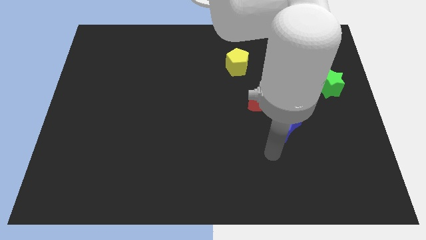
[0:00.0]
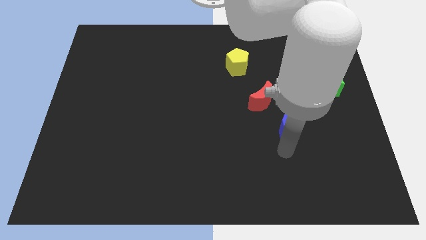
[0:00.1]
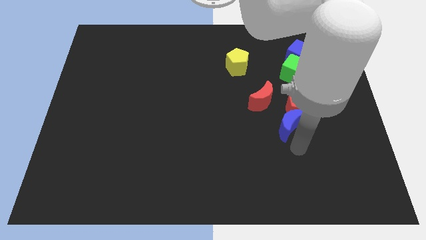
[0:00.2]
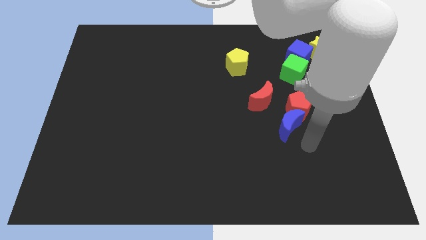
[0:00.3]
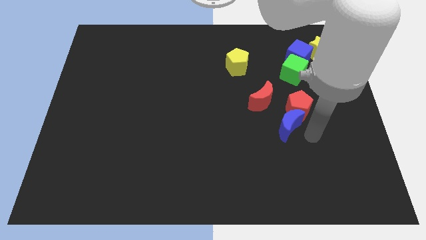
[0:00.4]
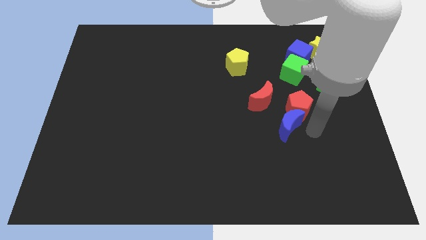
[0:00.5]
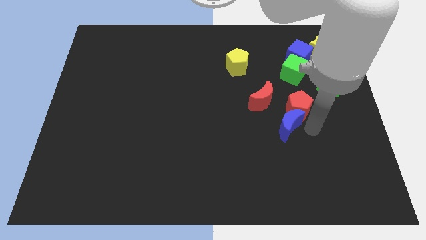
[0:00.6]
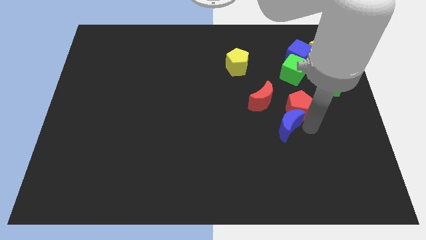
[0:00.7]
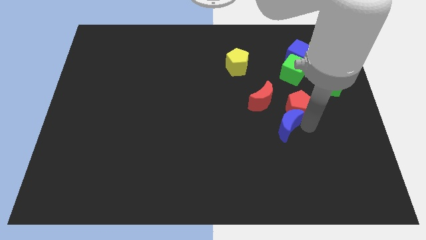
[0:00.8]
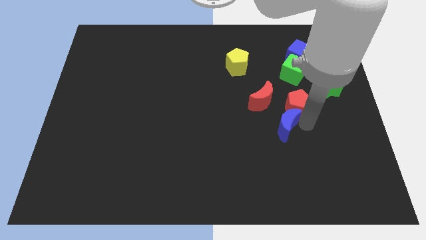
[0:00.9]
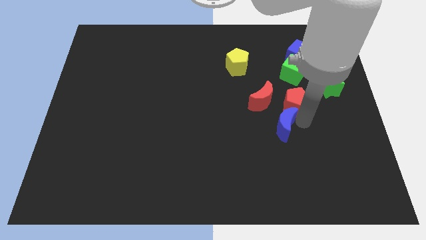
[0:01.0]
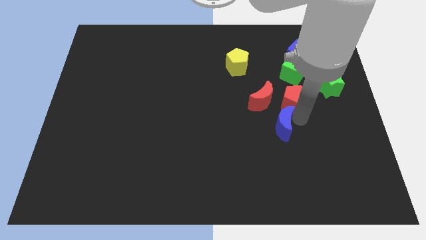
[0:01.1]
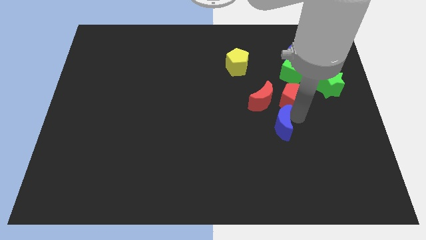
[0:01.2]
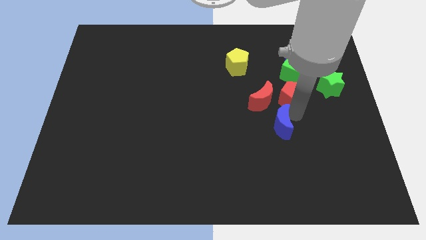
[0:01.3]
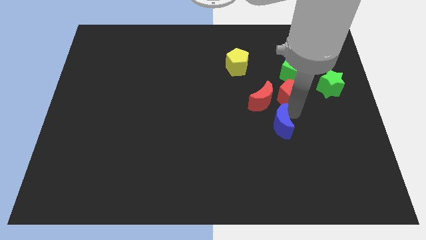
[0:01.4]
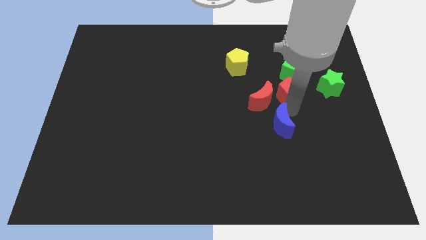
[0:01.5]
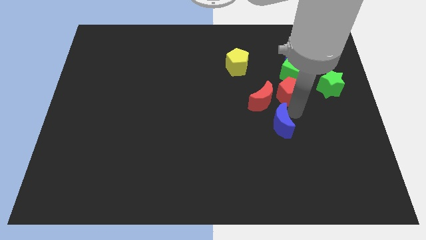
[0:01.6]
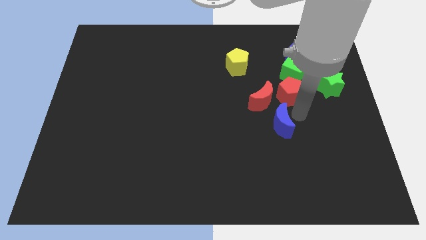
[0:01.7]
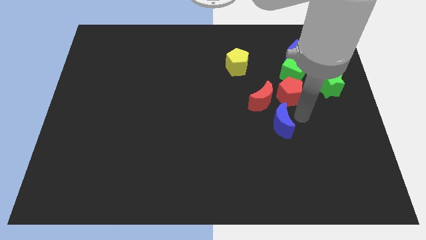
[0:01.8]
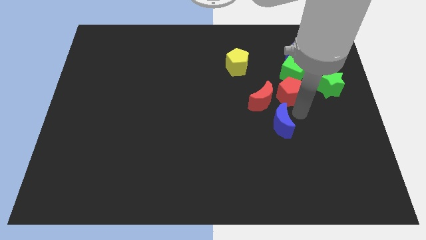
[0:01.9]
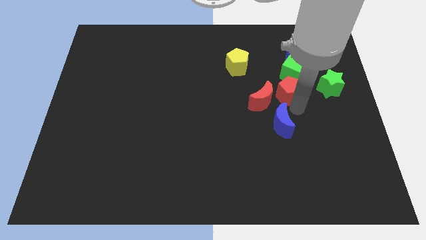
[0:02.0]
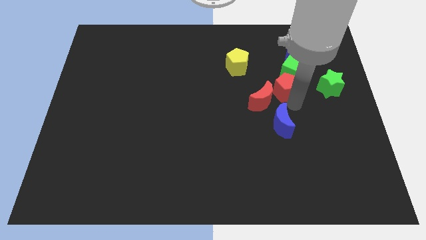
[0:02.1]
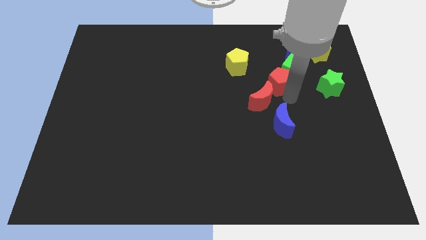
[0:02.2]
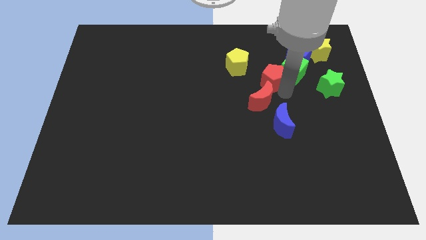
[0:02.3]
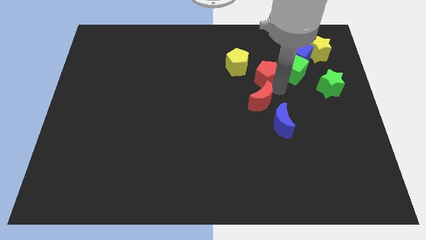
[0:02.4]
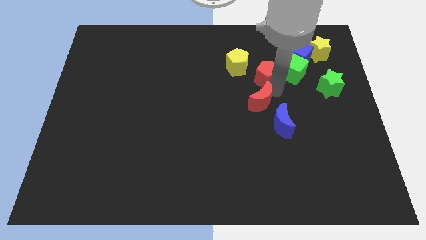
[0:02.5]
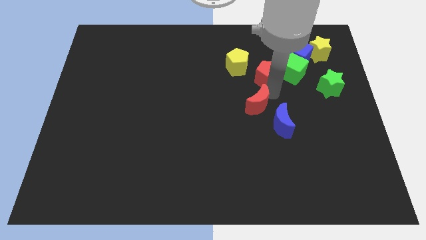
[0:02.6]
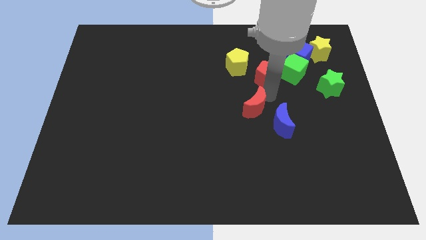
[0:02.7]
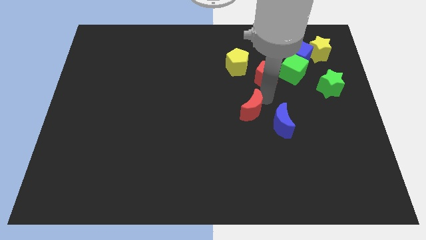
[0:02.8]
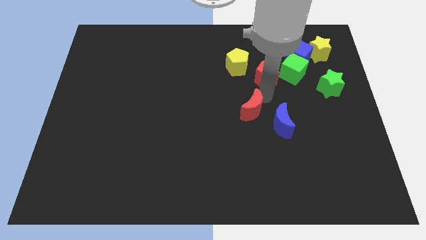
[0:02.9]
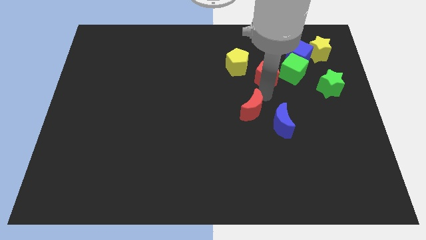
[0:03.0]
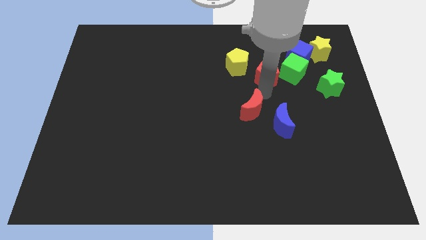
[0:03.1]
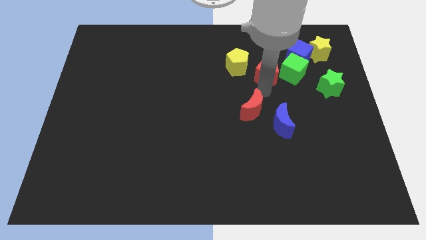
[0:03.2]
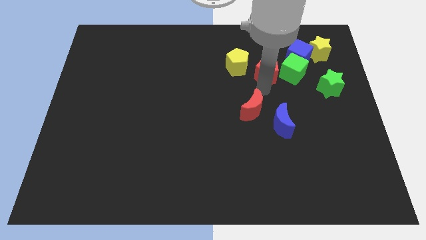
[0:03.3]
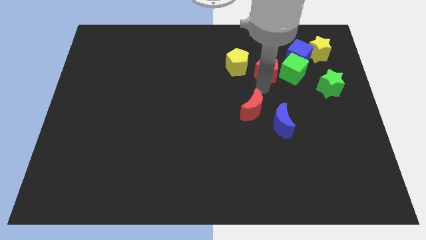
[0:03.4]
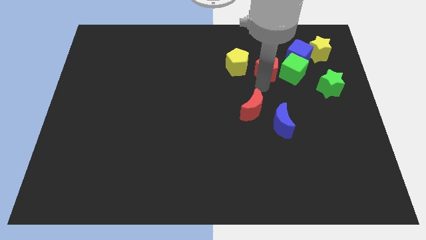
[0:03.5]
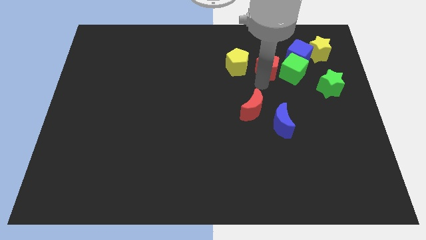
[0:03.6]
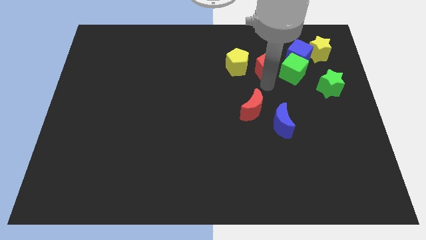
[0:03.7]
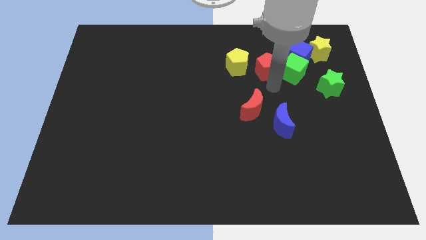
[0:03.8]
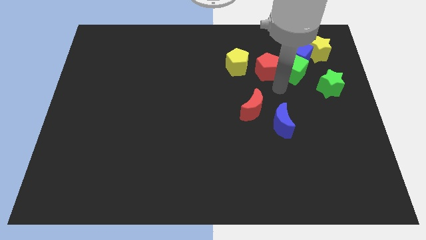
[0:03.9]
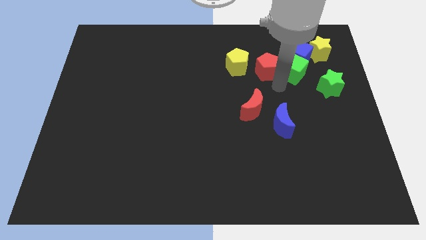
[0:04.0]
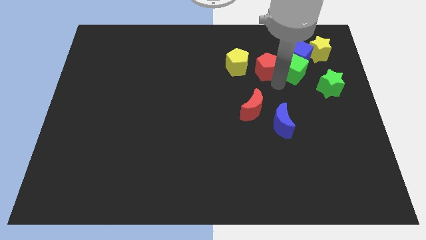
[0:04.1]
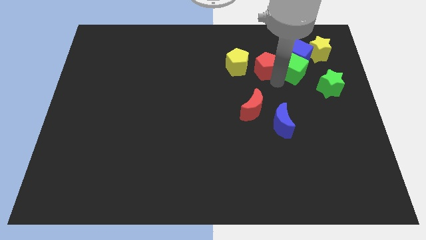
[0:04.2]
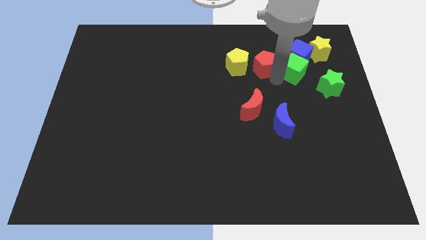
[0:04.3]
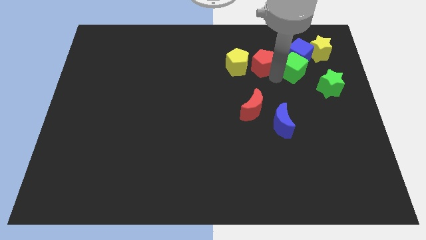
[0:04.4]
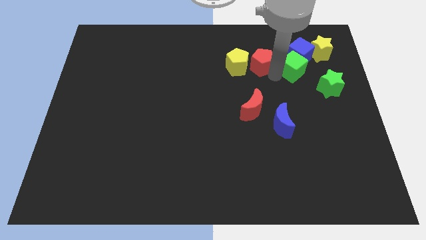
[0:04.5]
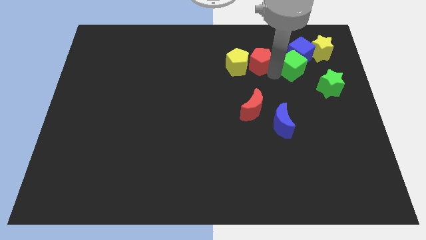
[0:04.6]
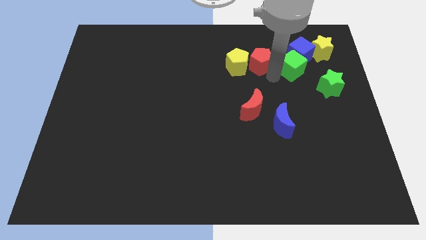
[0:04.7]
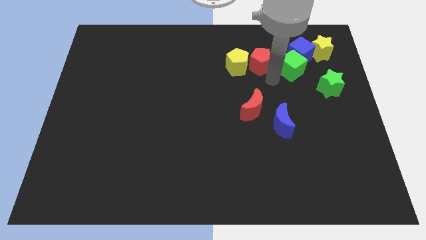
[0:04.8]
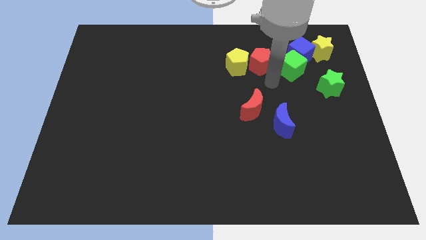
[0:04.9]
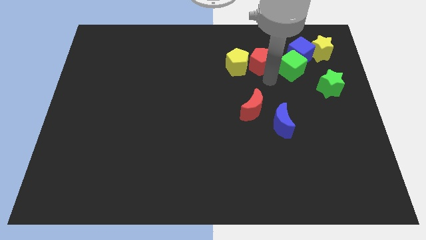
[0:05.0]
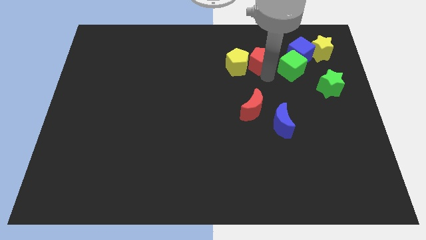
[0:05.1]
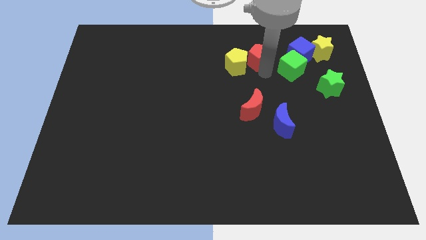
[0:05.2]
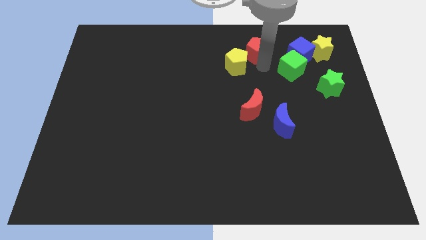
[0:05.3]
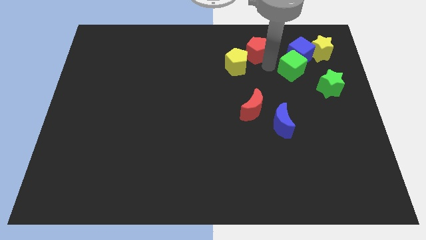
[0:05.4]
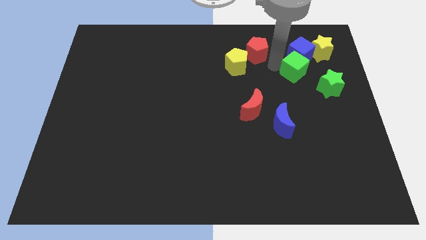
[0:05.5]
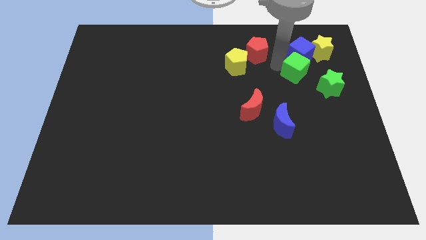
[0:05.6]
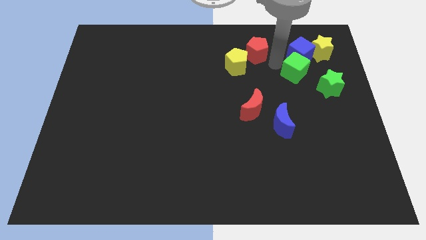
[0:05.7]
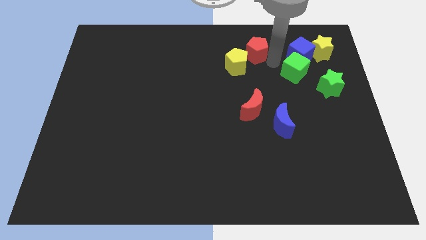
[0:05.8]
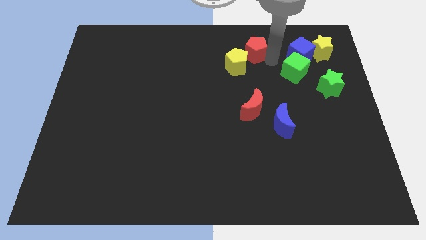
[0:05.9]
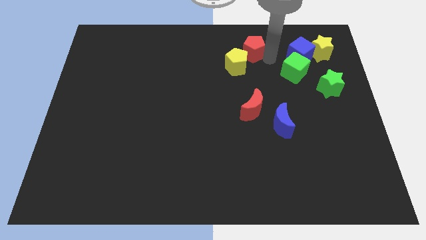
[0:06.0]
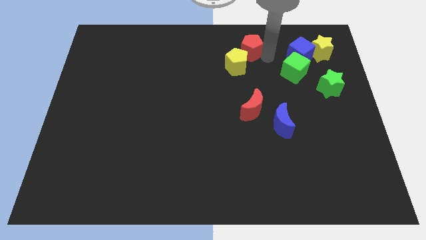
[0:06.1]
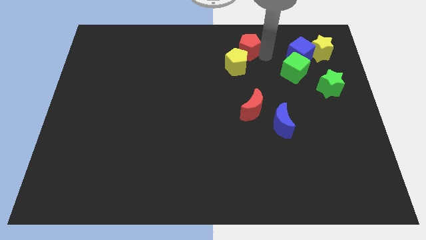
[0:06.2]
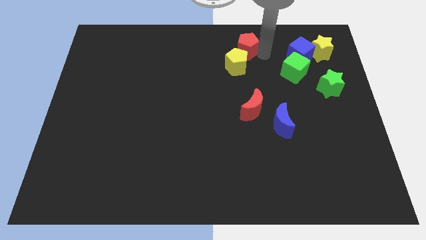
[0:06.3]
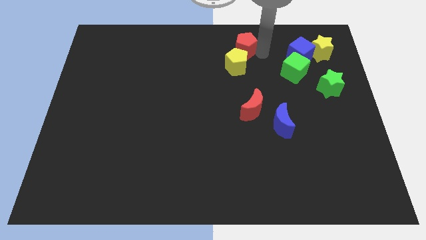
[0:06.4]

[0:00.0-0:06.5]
put the red pentagon to the towards your base

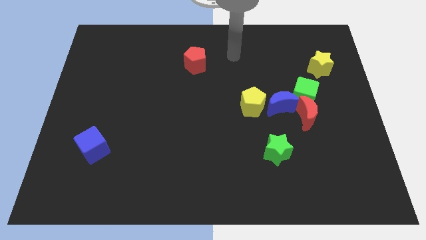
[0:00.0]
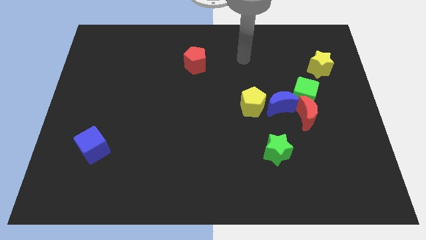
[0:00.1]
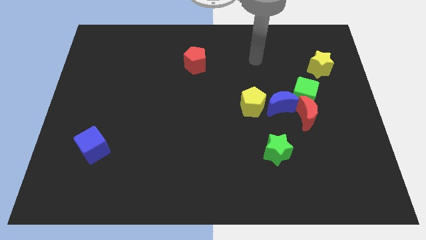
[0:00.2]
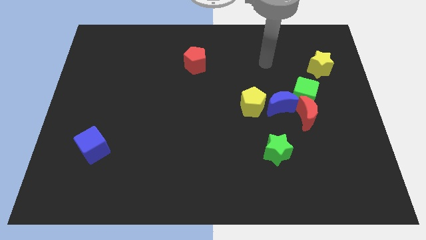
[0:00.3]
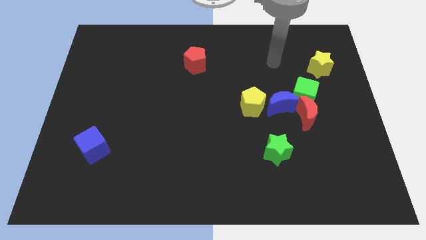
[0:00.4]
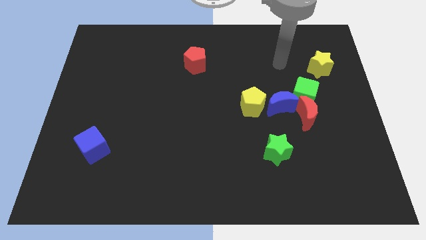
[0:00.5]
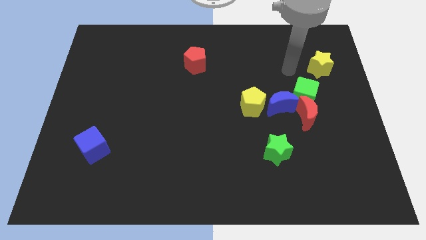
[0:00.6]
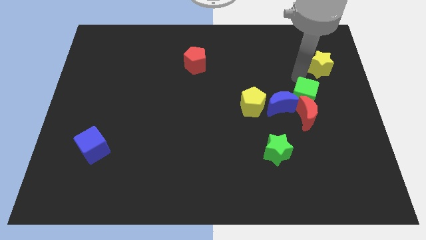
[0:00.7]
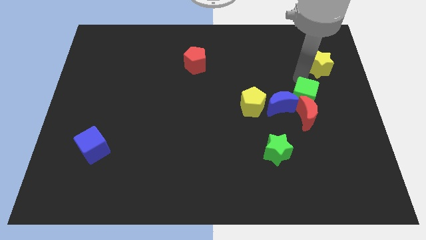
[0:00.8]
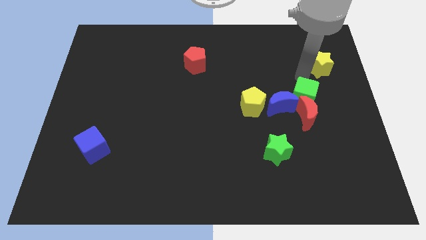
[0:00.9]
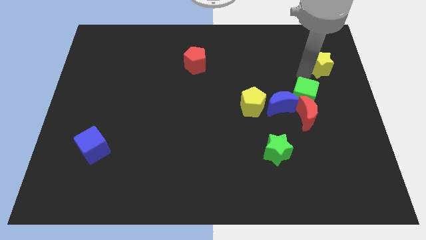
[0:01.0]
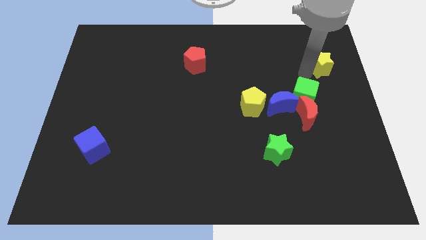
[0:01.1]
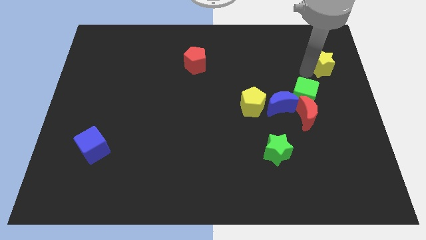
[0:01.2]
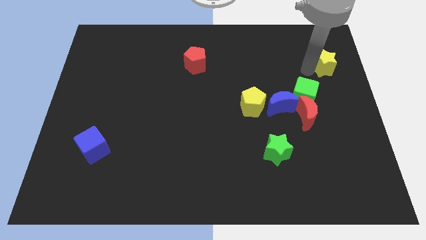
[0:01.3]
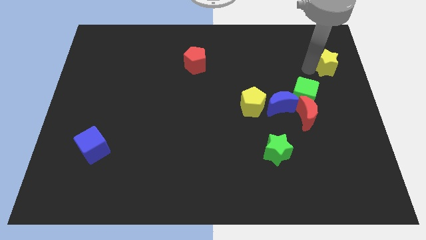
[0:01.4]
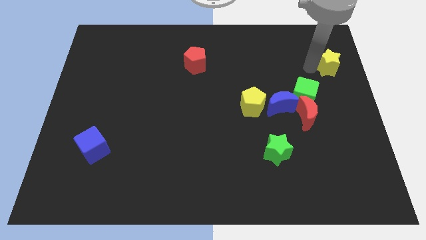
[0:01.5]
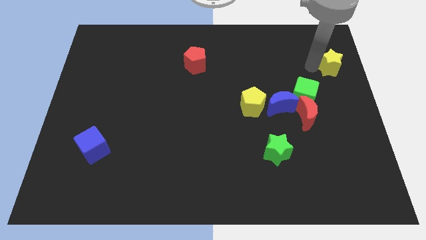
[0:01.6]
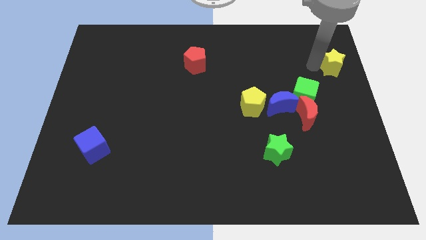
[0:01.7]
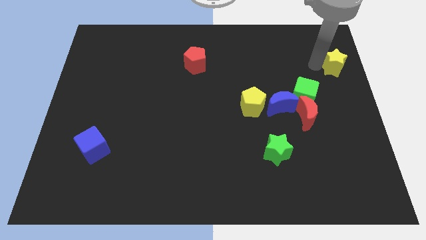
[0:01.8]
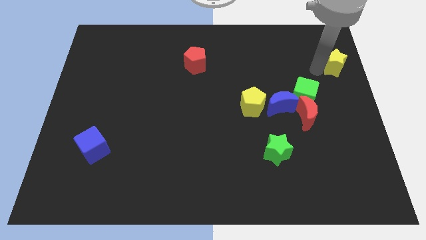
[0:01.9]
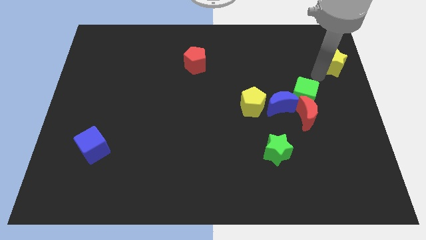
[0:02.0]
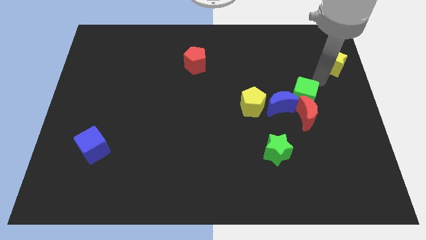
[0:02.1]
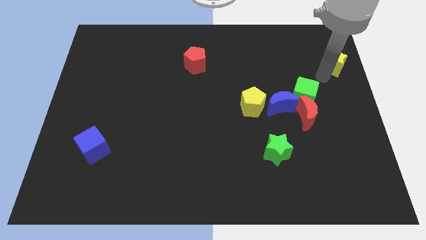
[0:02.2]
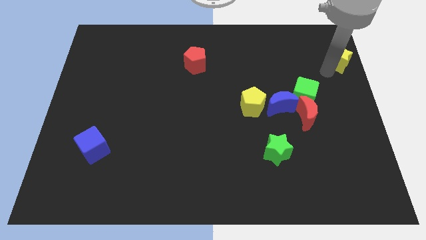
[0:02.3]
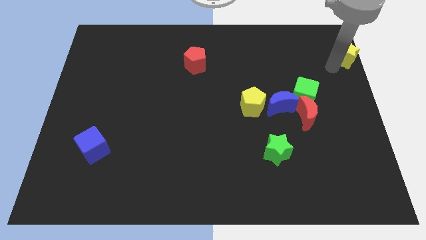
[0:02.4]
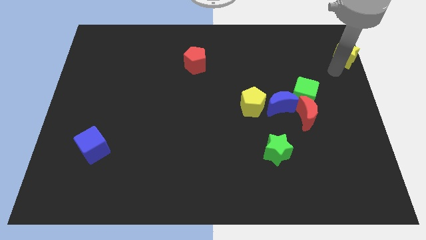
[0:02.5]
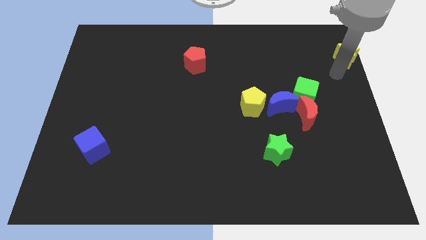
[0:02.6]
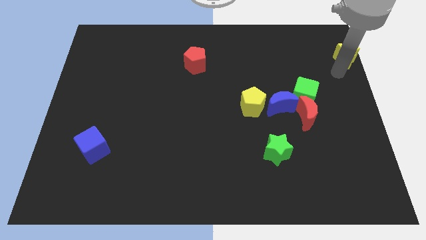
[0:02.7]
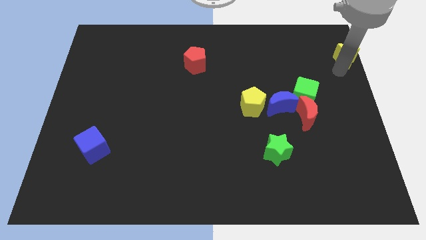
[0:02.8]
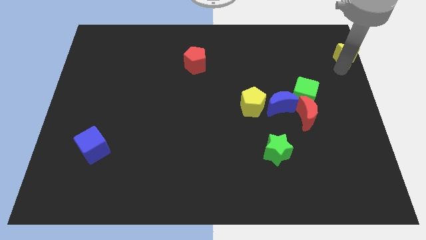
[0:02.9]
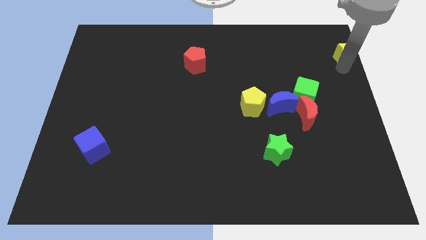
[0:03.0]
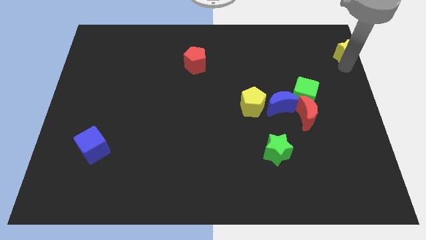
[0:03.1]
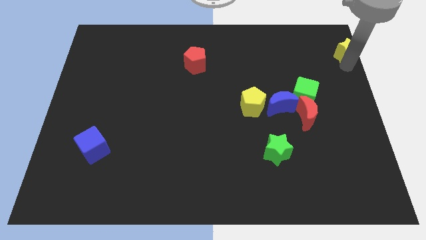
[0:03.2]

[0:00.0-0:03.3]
move the yellow star to the top right
